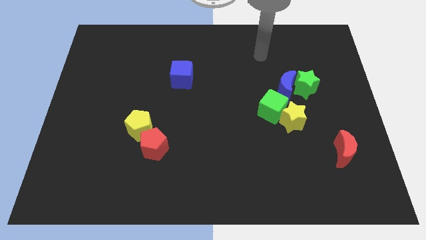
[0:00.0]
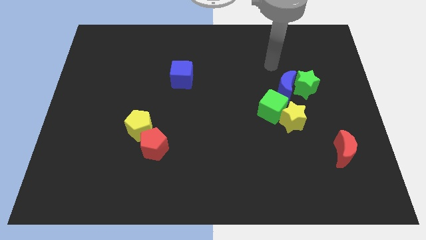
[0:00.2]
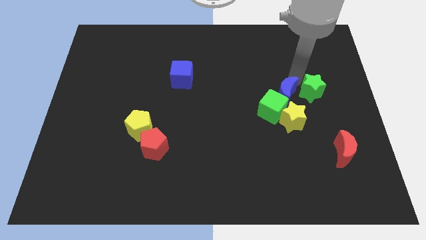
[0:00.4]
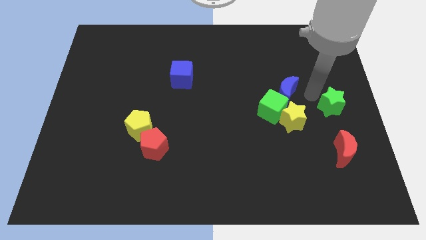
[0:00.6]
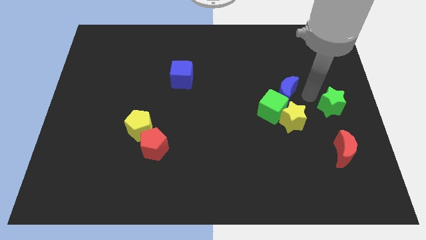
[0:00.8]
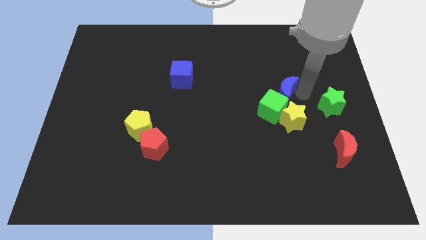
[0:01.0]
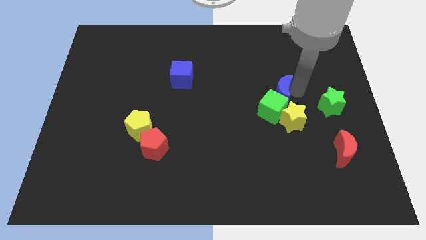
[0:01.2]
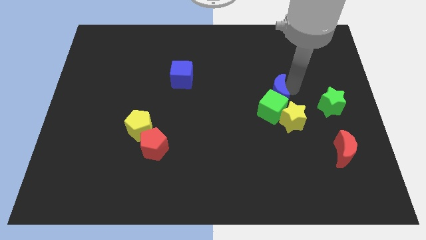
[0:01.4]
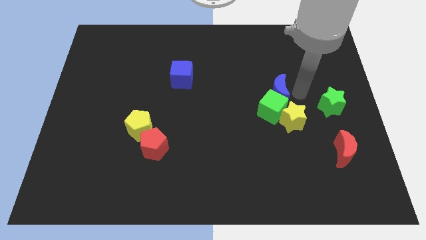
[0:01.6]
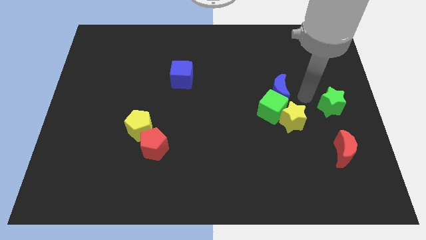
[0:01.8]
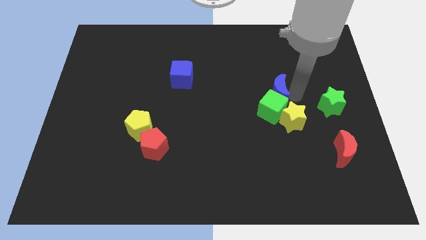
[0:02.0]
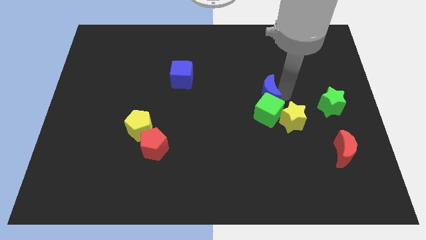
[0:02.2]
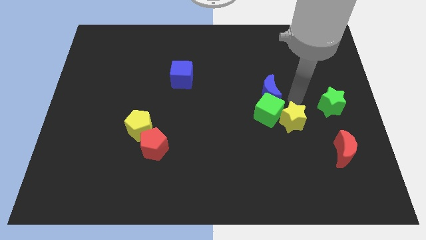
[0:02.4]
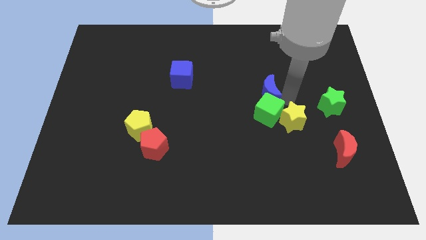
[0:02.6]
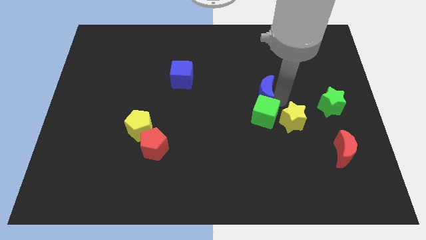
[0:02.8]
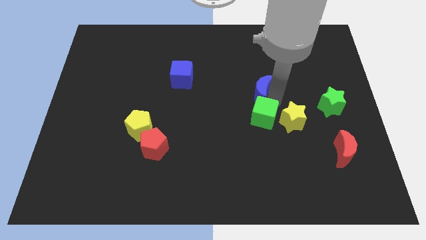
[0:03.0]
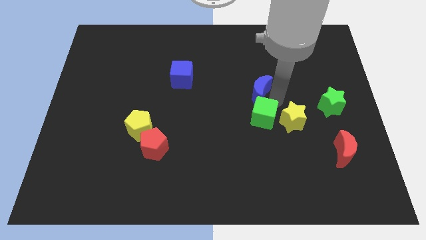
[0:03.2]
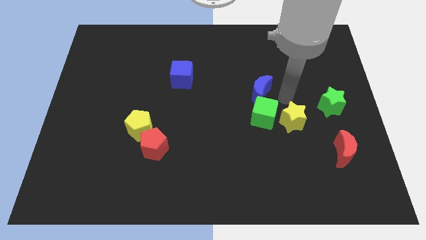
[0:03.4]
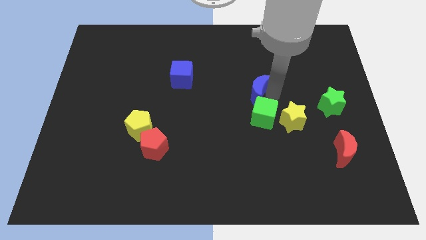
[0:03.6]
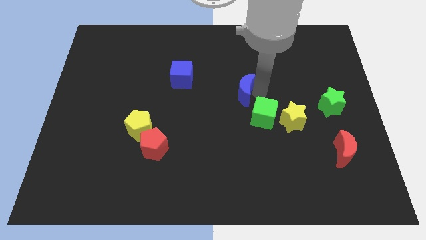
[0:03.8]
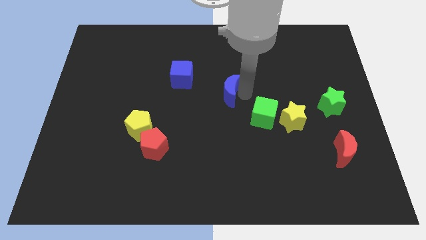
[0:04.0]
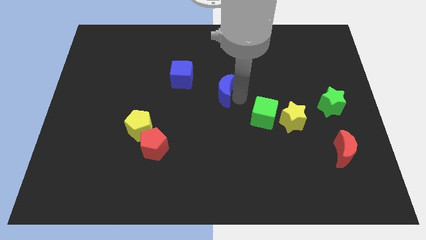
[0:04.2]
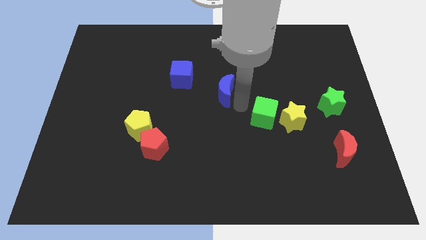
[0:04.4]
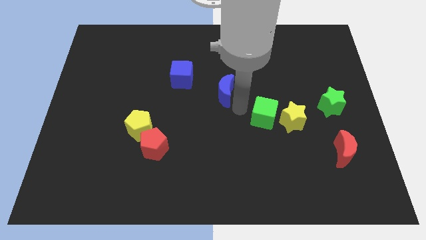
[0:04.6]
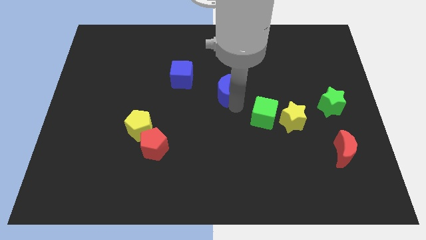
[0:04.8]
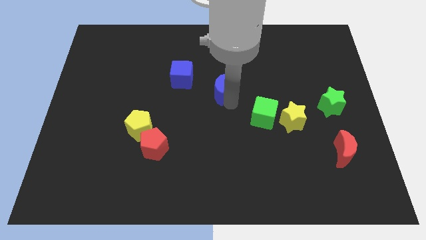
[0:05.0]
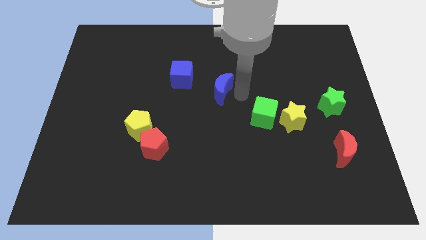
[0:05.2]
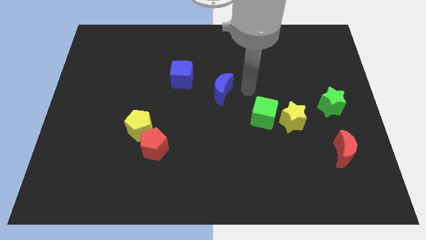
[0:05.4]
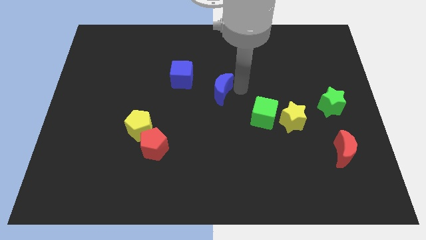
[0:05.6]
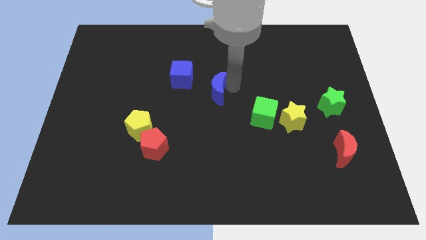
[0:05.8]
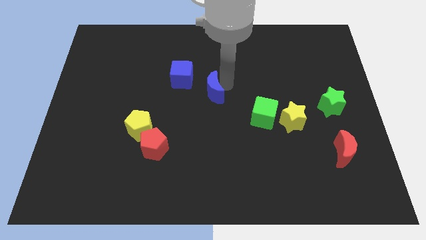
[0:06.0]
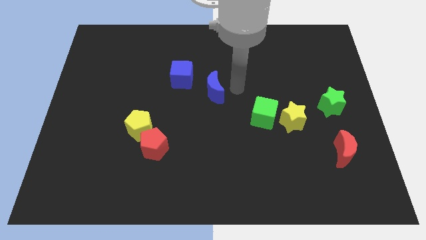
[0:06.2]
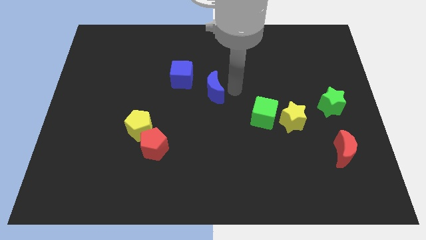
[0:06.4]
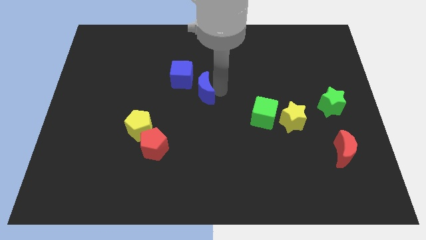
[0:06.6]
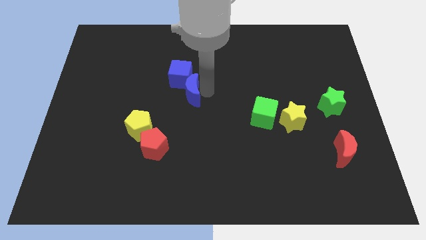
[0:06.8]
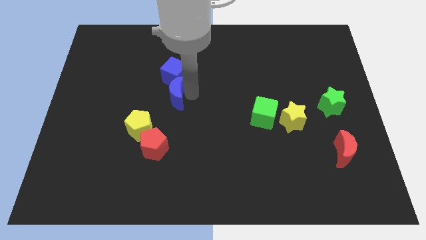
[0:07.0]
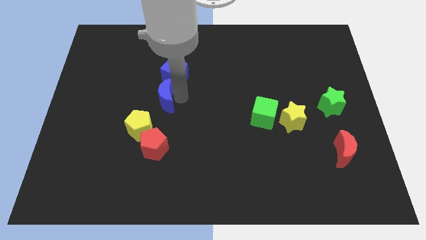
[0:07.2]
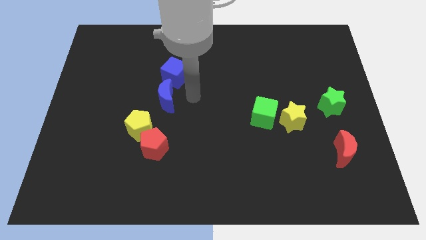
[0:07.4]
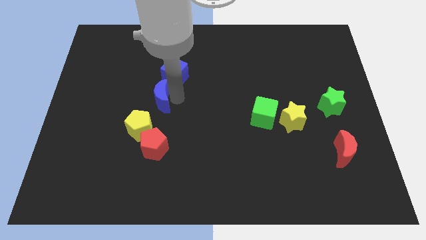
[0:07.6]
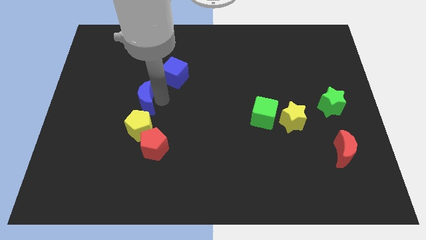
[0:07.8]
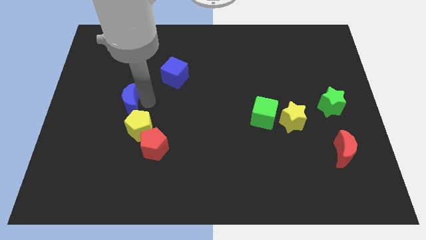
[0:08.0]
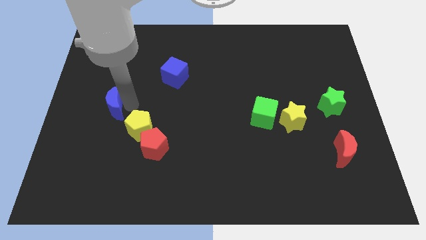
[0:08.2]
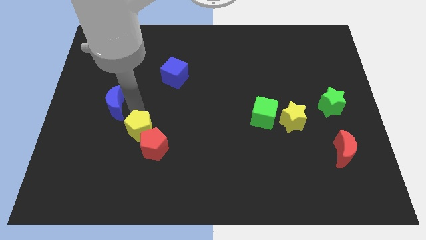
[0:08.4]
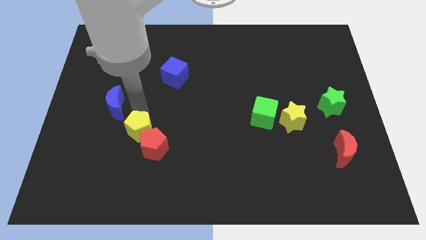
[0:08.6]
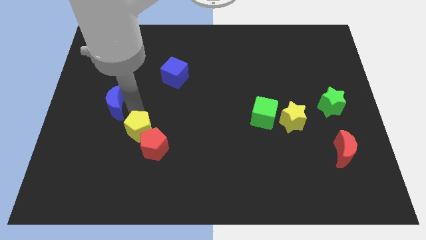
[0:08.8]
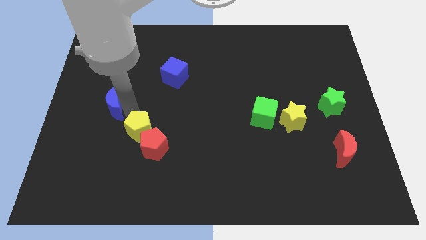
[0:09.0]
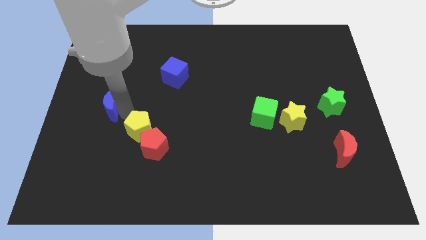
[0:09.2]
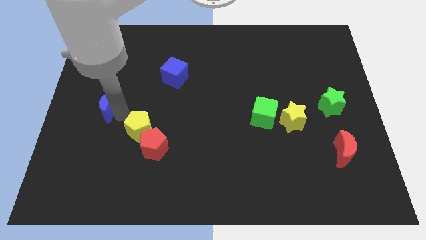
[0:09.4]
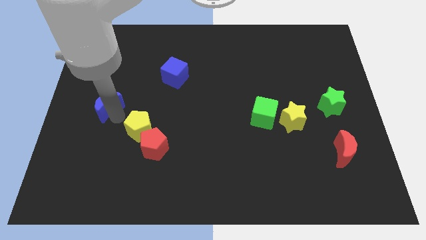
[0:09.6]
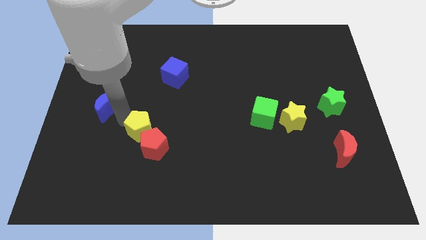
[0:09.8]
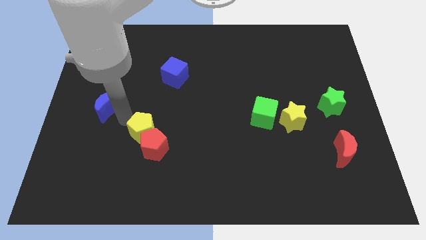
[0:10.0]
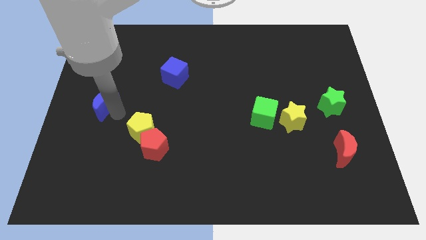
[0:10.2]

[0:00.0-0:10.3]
put the blue moon to the center left

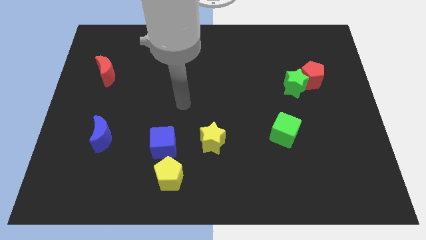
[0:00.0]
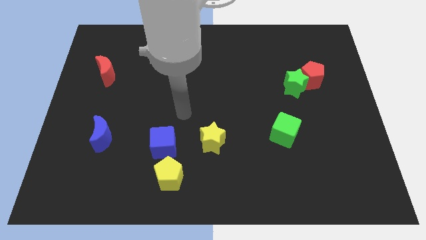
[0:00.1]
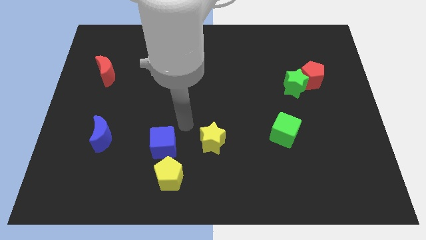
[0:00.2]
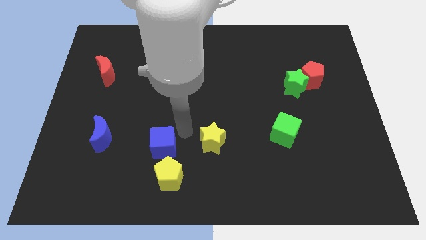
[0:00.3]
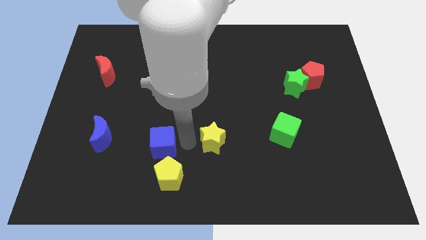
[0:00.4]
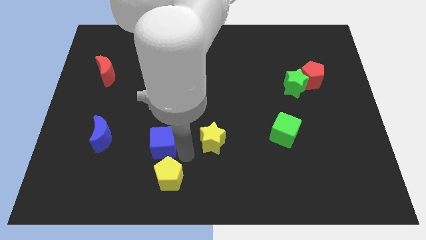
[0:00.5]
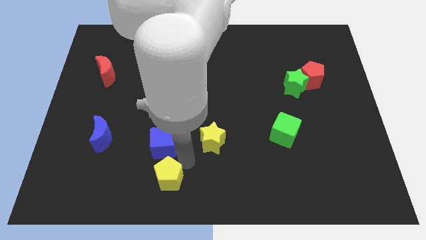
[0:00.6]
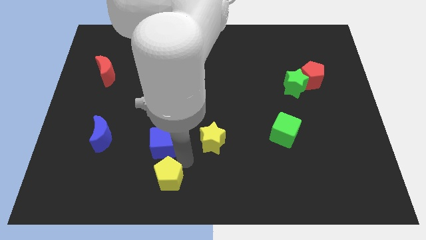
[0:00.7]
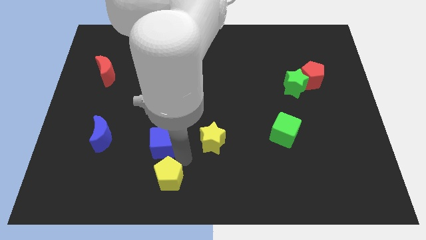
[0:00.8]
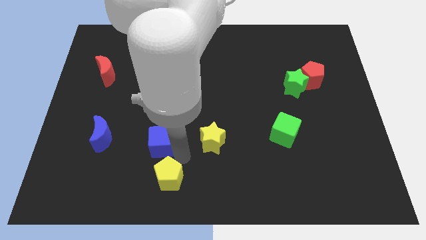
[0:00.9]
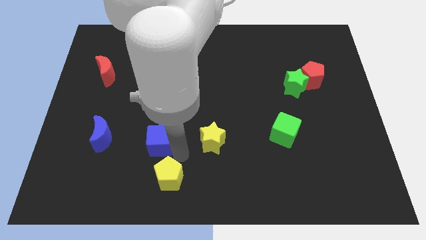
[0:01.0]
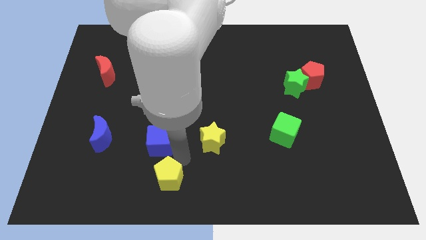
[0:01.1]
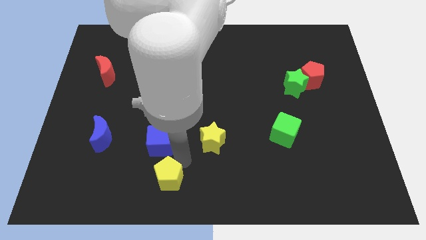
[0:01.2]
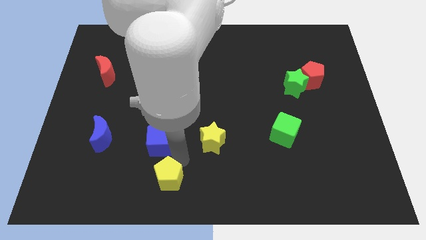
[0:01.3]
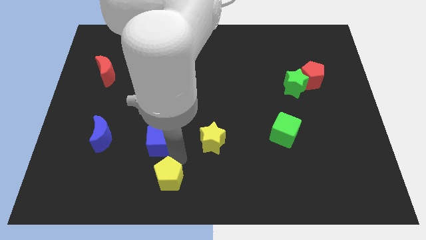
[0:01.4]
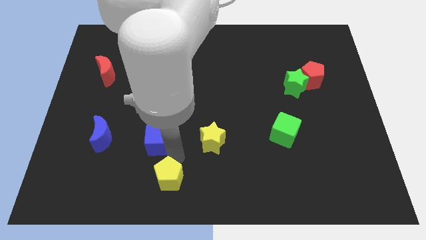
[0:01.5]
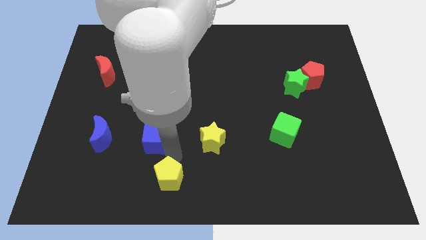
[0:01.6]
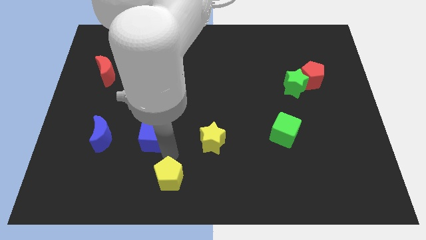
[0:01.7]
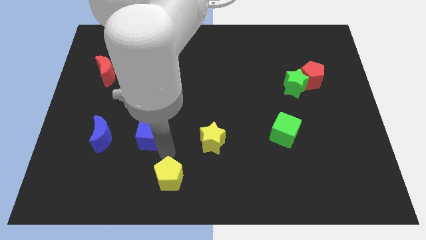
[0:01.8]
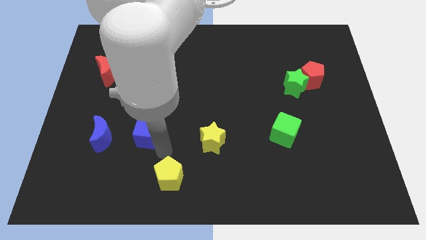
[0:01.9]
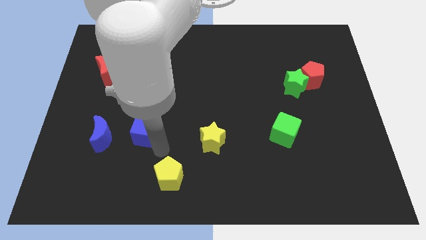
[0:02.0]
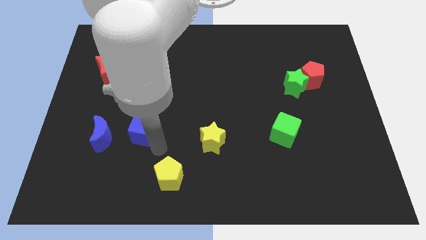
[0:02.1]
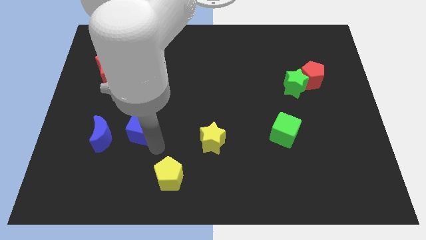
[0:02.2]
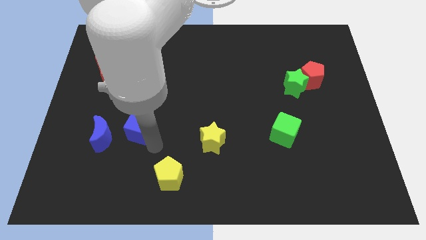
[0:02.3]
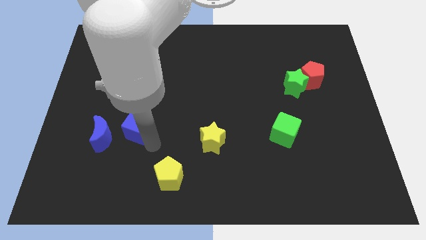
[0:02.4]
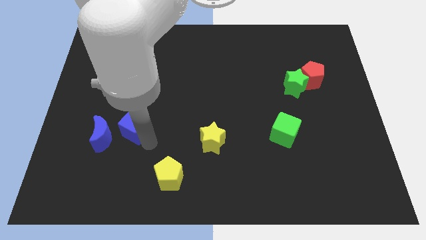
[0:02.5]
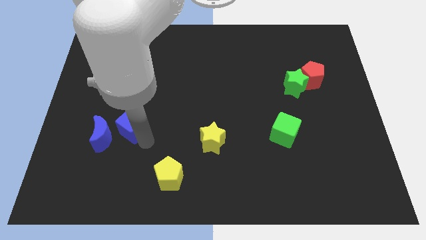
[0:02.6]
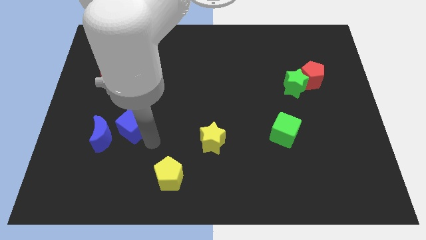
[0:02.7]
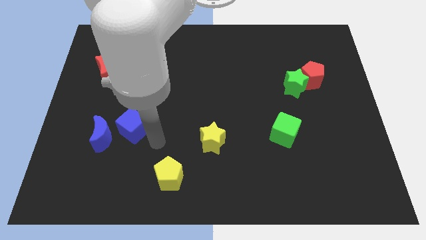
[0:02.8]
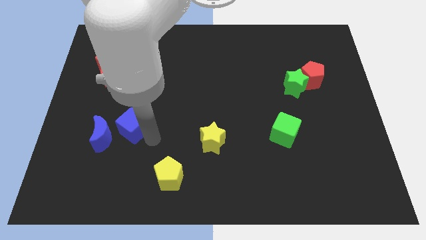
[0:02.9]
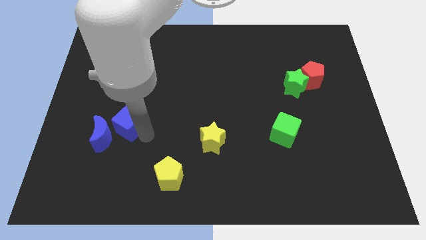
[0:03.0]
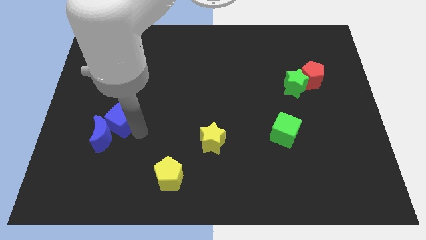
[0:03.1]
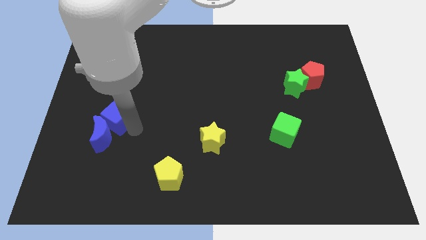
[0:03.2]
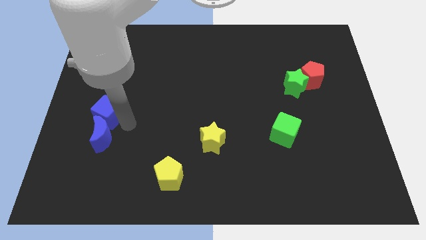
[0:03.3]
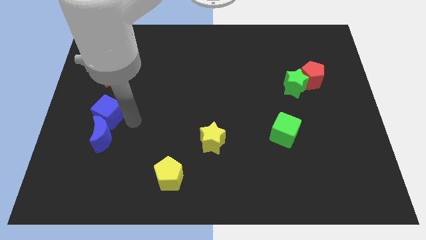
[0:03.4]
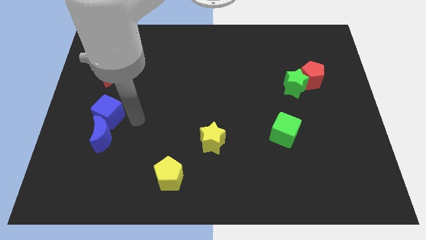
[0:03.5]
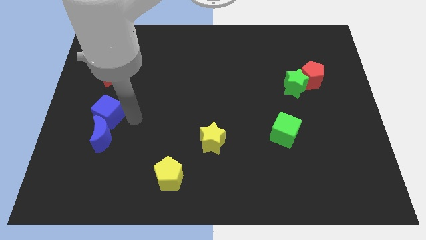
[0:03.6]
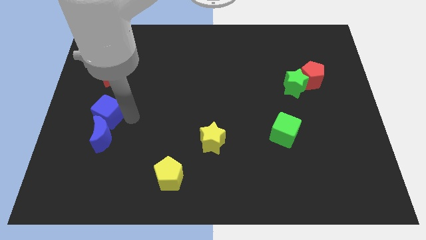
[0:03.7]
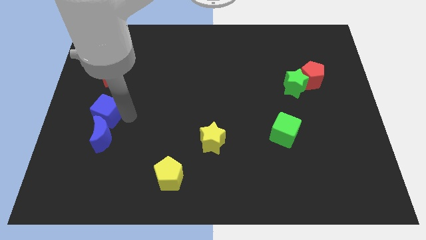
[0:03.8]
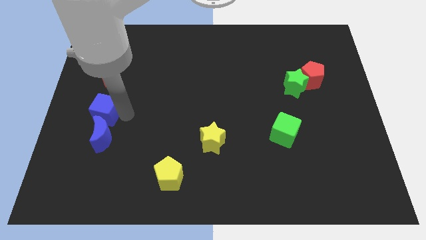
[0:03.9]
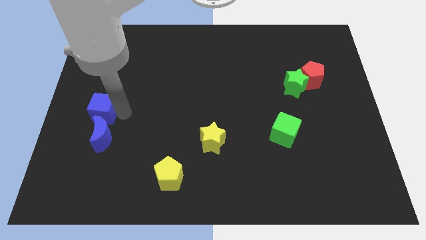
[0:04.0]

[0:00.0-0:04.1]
slide the blue cube to the left side of the board
